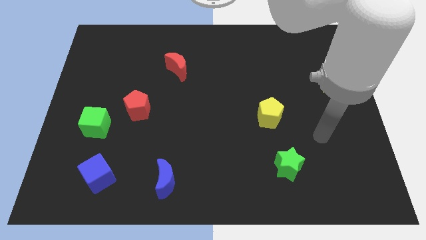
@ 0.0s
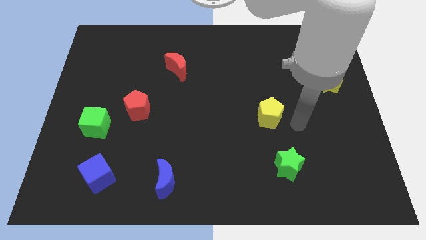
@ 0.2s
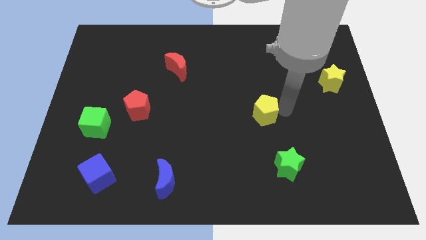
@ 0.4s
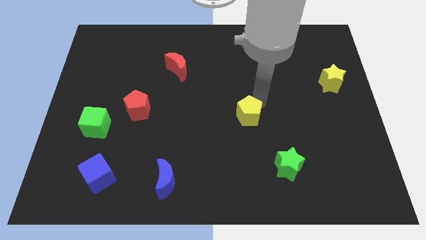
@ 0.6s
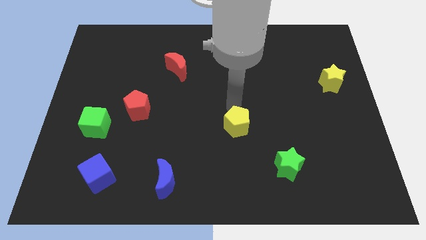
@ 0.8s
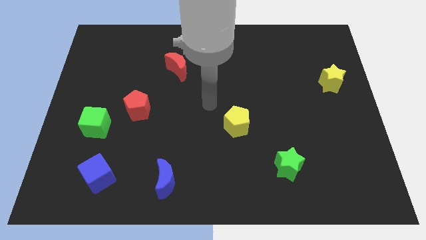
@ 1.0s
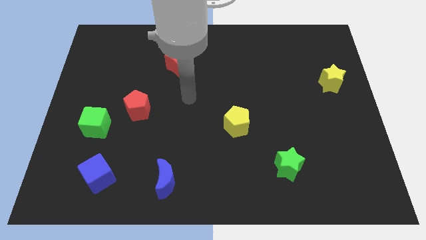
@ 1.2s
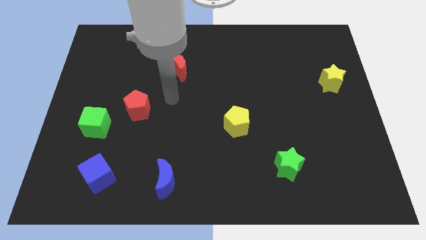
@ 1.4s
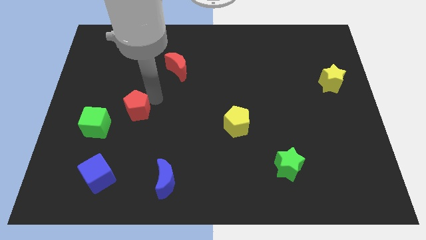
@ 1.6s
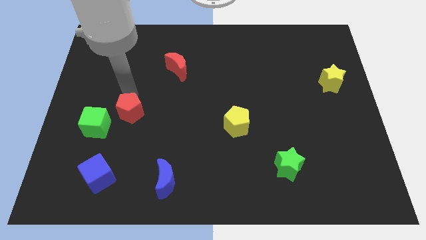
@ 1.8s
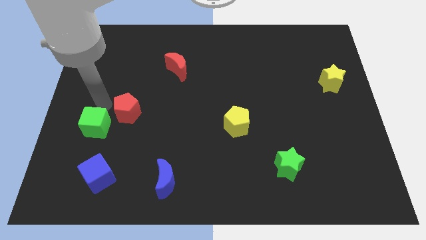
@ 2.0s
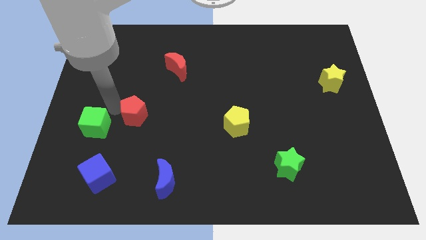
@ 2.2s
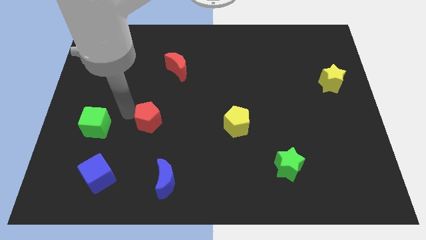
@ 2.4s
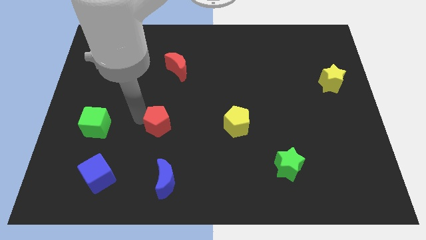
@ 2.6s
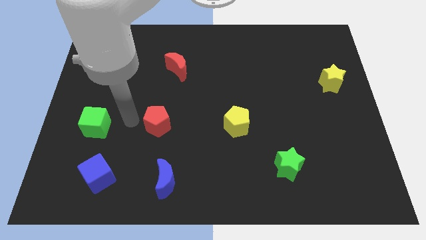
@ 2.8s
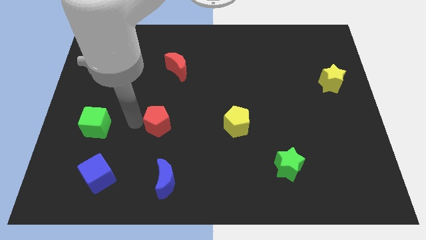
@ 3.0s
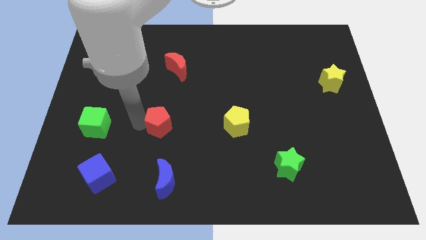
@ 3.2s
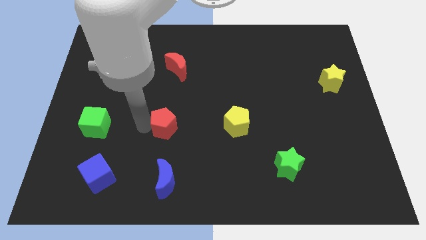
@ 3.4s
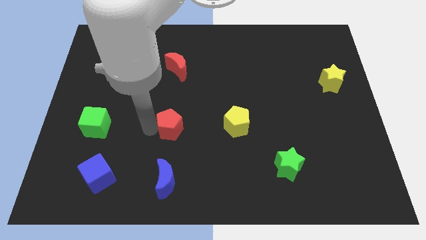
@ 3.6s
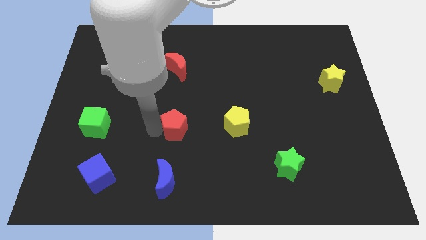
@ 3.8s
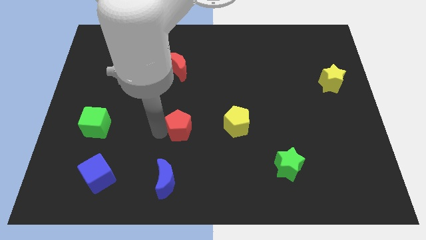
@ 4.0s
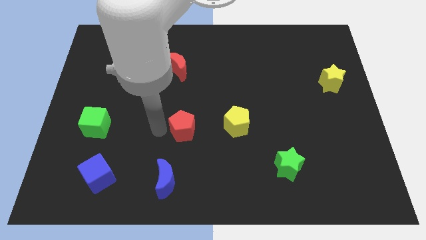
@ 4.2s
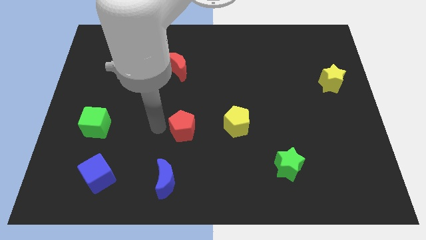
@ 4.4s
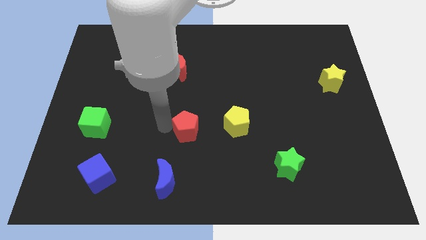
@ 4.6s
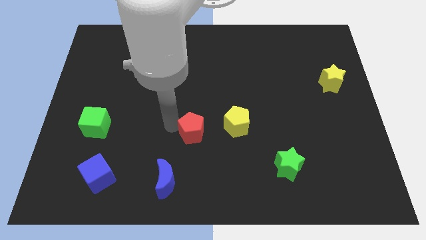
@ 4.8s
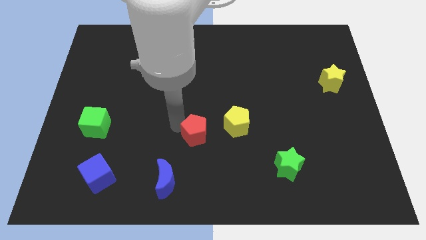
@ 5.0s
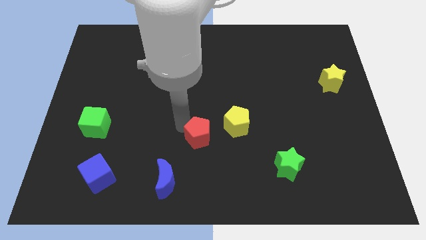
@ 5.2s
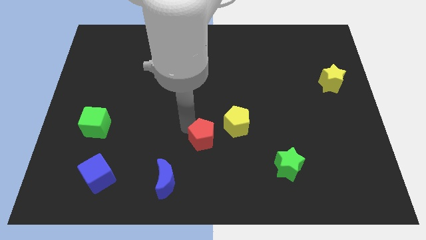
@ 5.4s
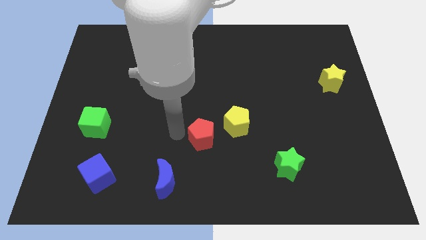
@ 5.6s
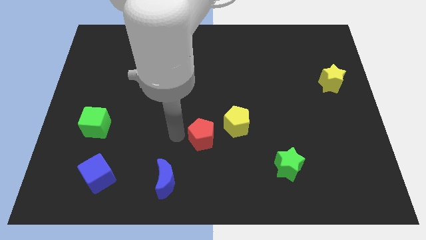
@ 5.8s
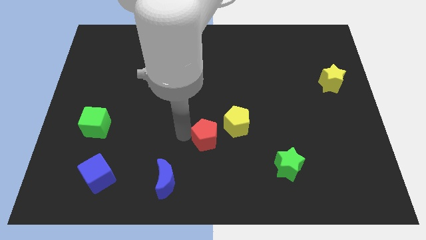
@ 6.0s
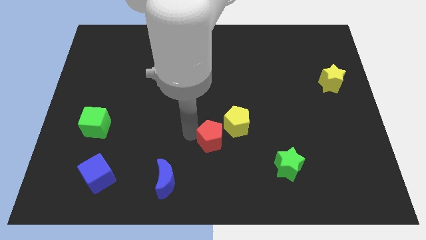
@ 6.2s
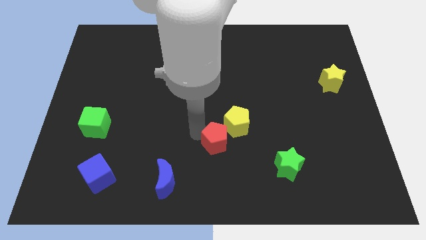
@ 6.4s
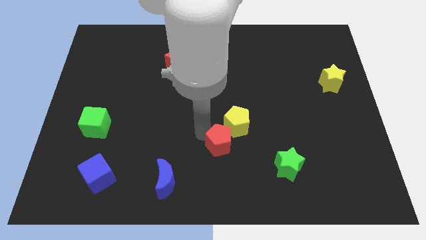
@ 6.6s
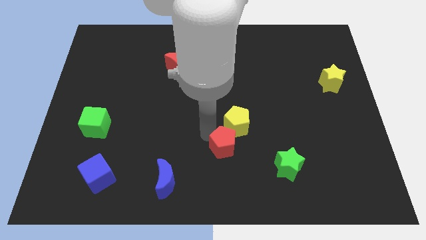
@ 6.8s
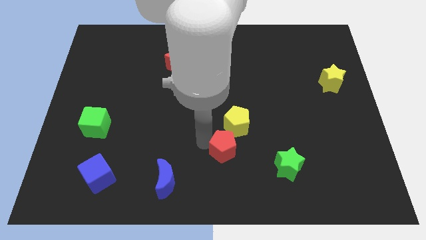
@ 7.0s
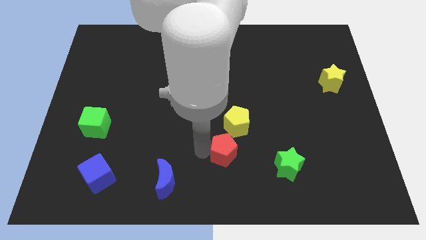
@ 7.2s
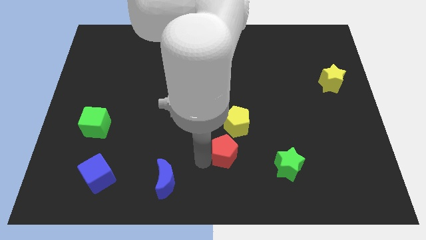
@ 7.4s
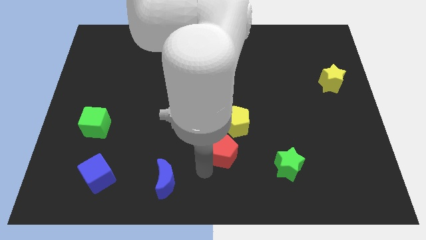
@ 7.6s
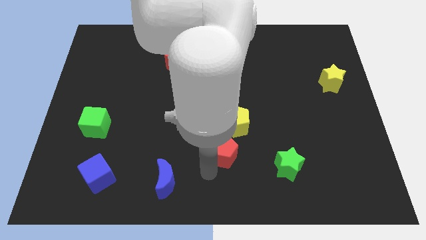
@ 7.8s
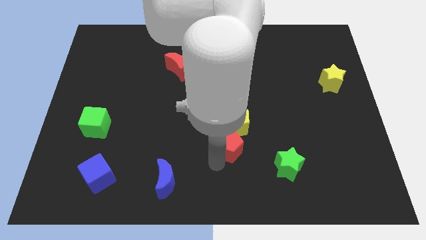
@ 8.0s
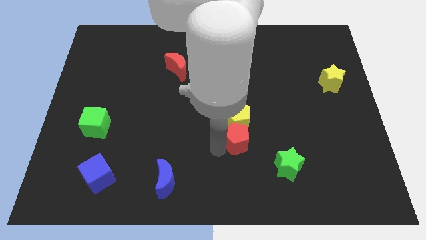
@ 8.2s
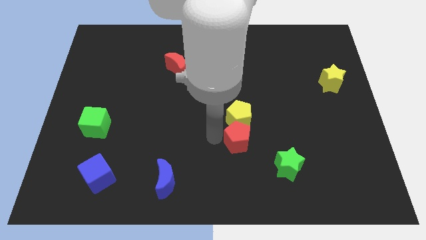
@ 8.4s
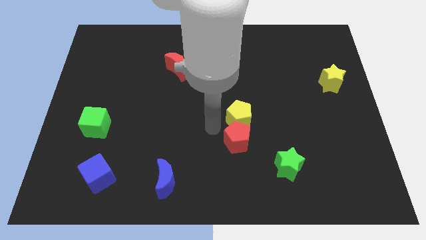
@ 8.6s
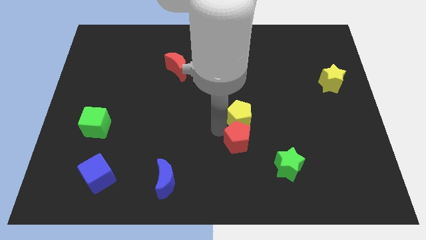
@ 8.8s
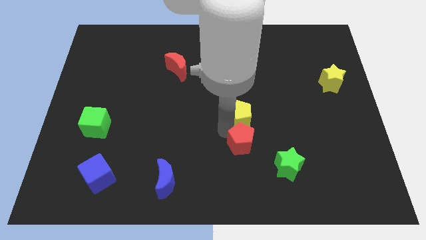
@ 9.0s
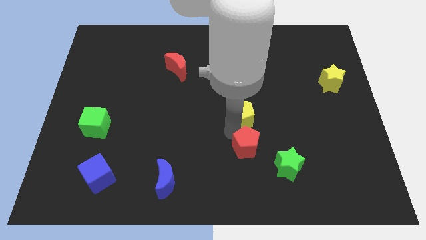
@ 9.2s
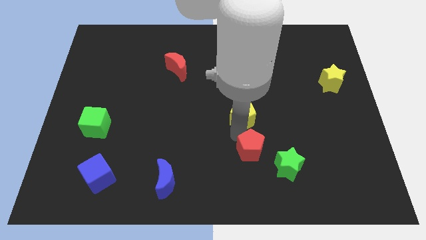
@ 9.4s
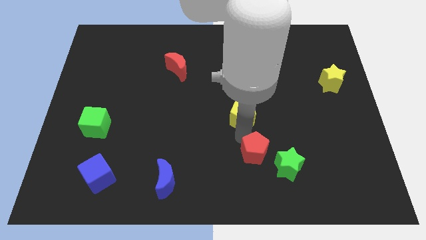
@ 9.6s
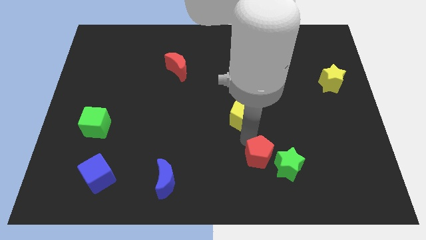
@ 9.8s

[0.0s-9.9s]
slide the red pentagon close to the green star

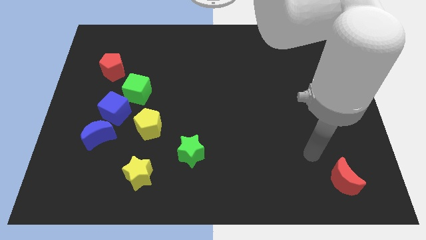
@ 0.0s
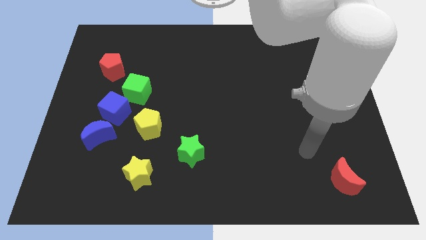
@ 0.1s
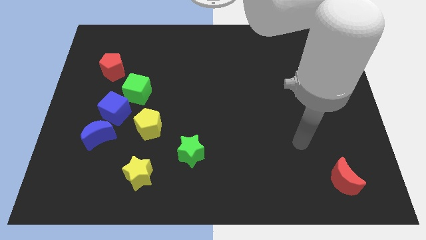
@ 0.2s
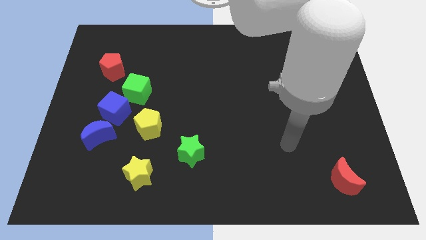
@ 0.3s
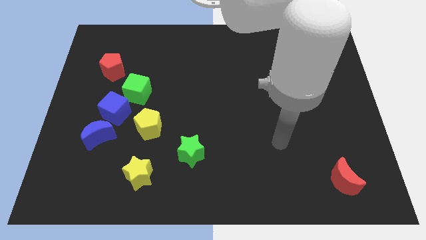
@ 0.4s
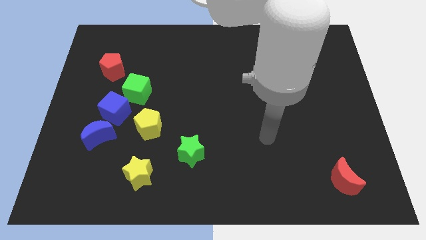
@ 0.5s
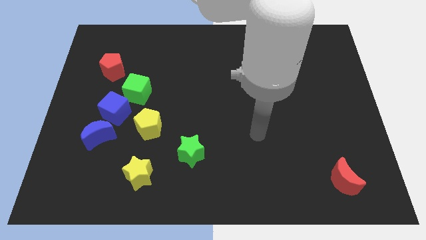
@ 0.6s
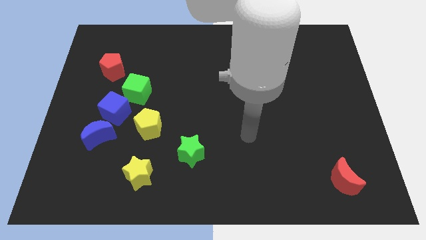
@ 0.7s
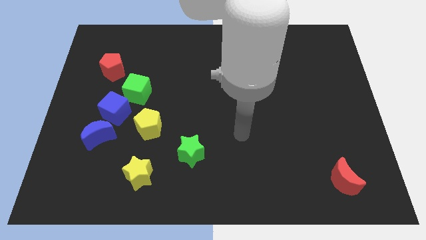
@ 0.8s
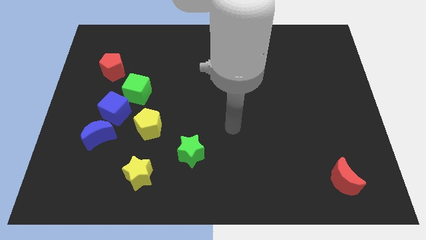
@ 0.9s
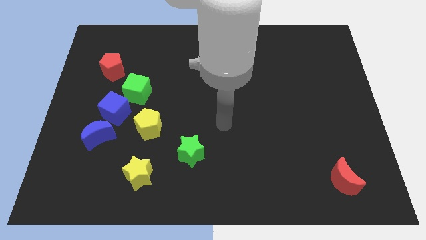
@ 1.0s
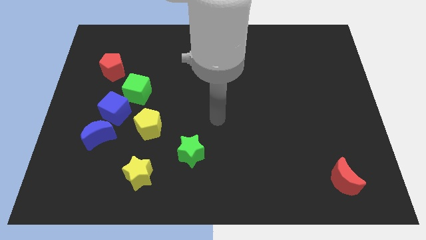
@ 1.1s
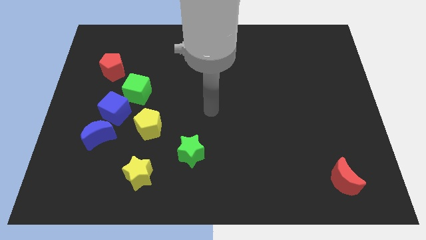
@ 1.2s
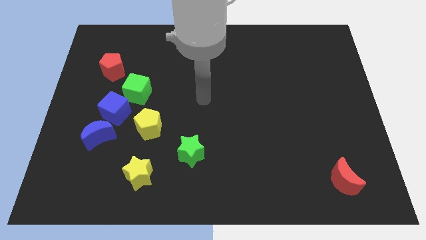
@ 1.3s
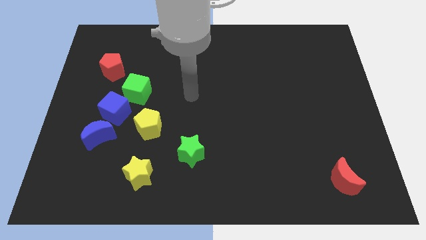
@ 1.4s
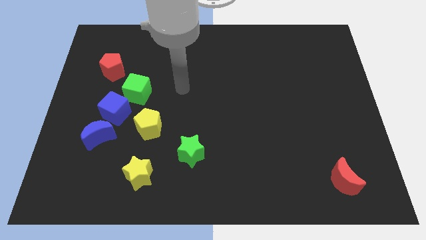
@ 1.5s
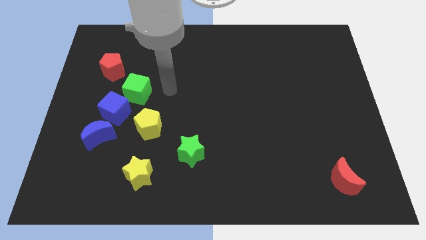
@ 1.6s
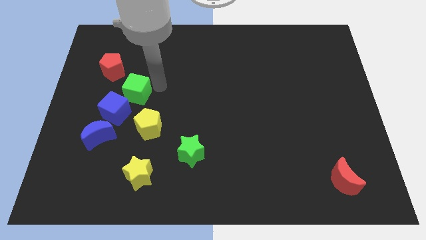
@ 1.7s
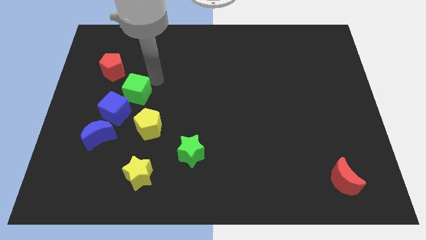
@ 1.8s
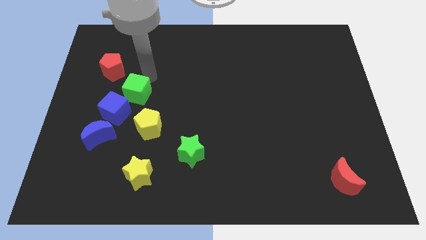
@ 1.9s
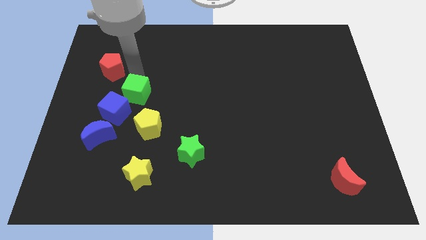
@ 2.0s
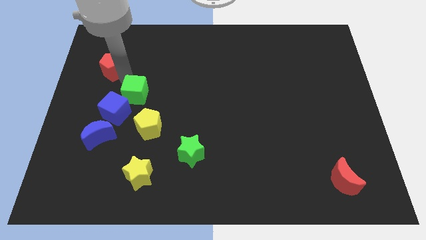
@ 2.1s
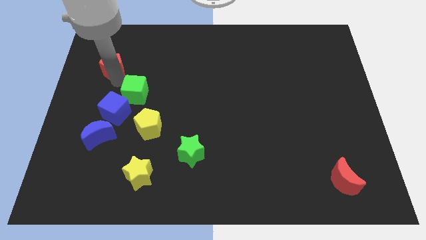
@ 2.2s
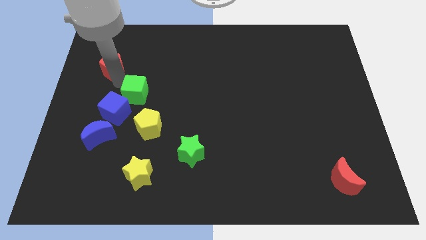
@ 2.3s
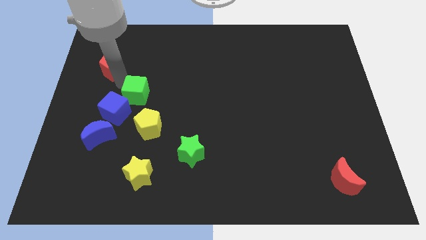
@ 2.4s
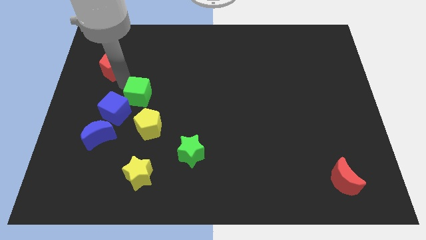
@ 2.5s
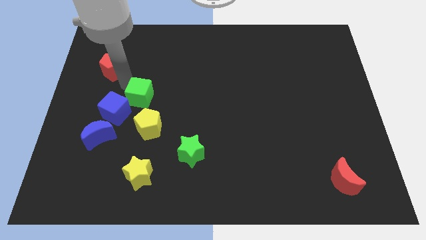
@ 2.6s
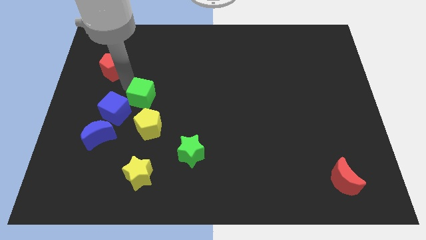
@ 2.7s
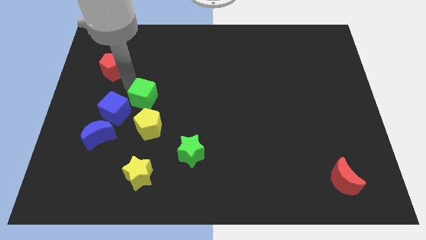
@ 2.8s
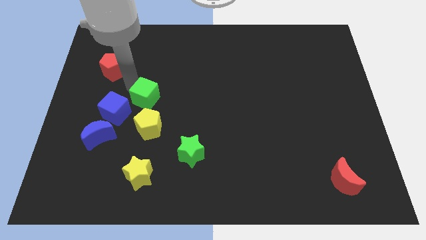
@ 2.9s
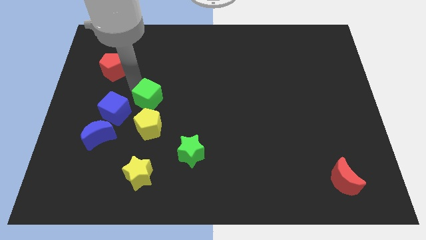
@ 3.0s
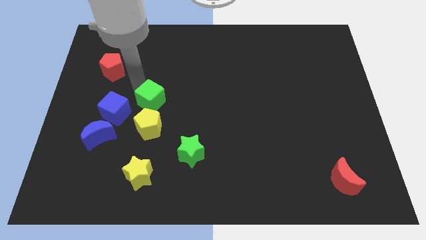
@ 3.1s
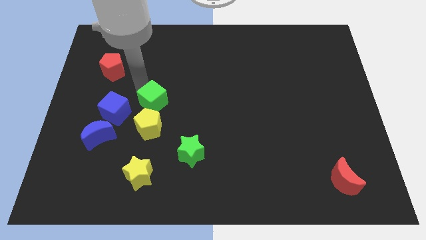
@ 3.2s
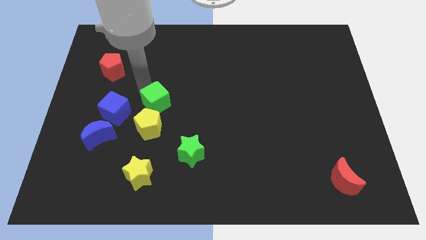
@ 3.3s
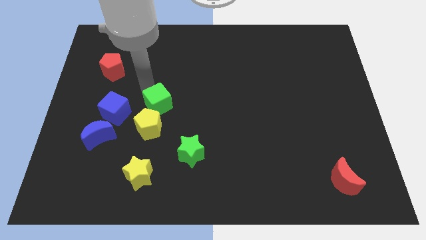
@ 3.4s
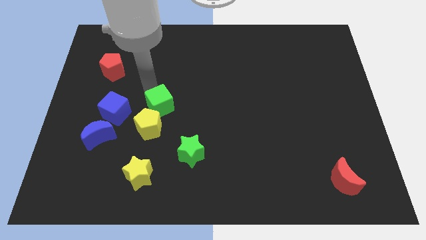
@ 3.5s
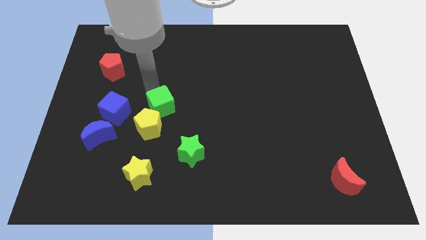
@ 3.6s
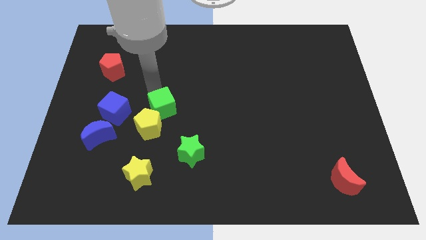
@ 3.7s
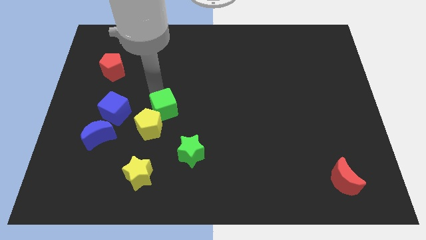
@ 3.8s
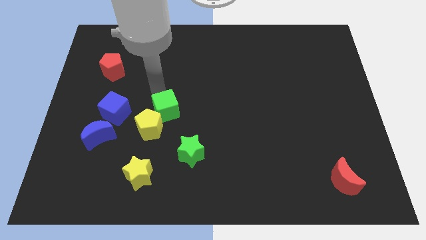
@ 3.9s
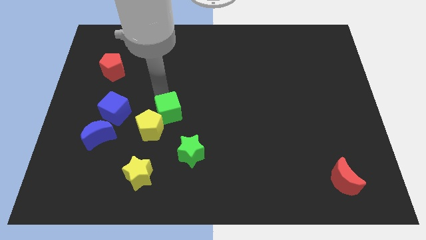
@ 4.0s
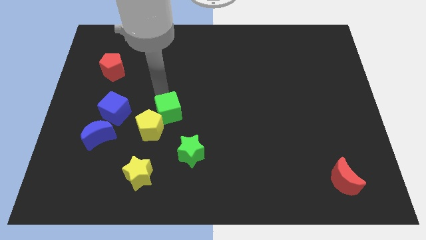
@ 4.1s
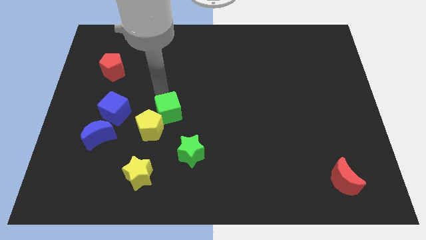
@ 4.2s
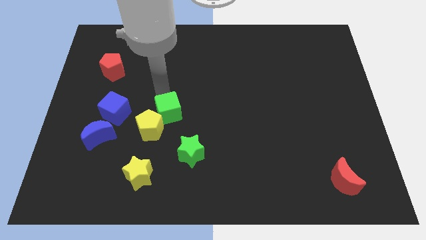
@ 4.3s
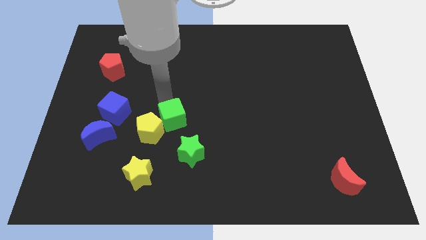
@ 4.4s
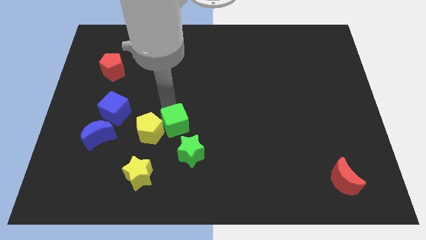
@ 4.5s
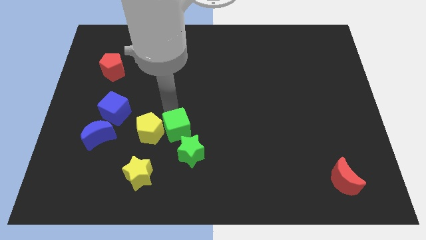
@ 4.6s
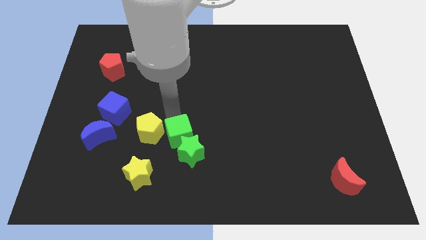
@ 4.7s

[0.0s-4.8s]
push the green cube towards the green star
